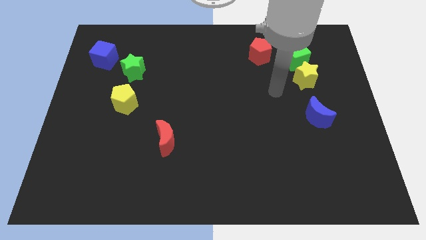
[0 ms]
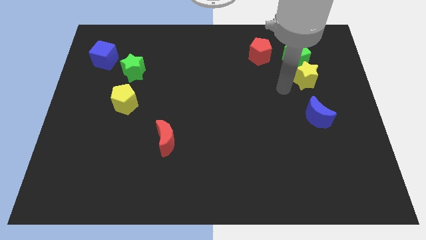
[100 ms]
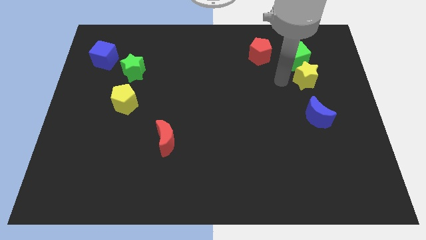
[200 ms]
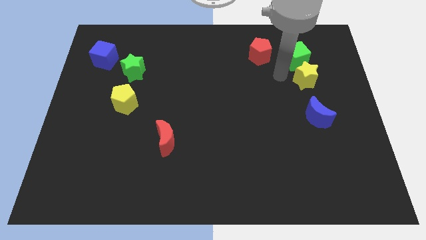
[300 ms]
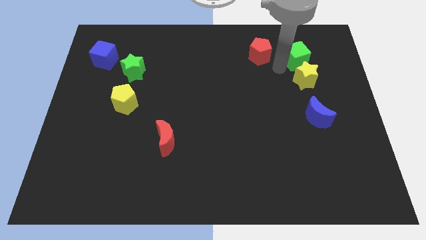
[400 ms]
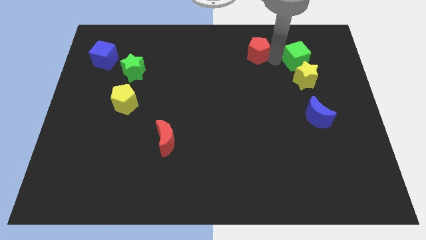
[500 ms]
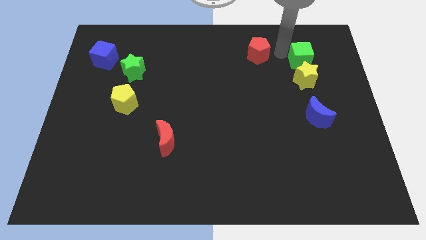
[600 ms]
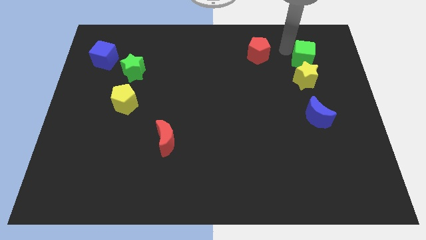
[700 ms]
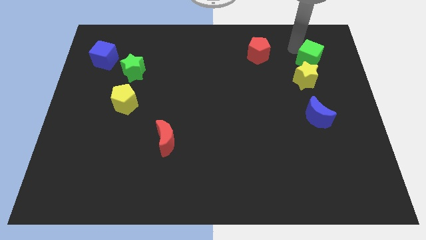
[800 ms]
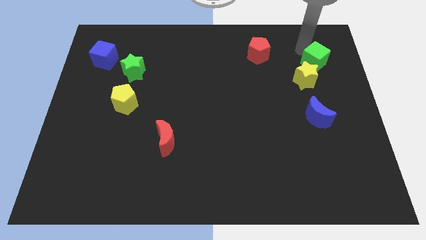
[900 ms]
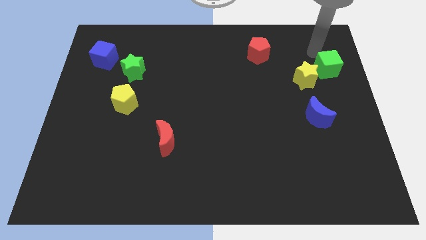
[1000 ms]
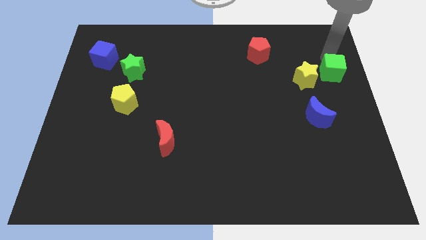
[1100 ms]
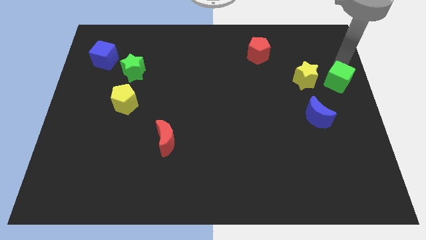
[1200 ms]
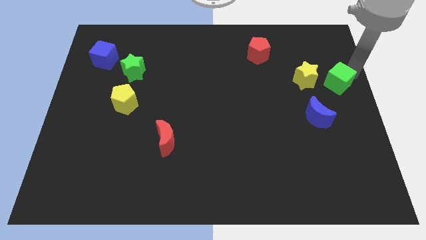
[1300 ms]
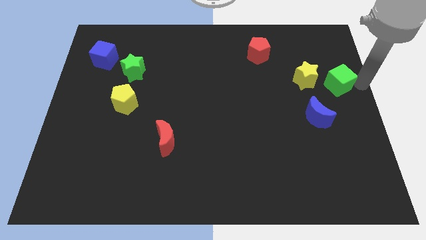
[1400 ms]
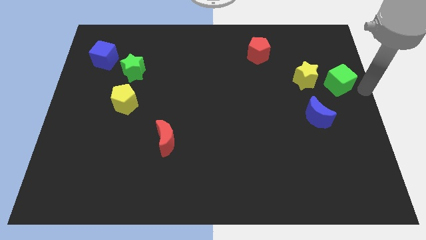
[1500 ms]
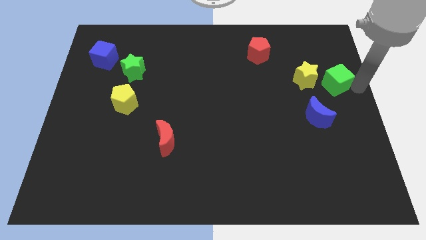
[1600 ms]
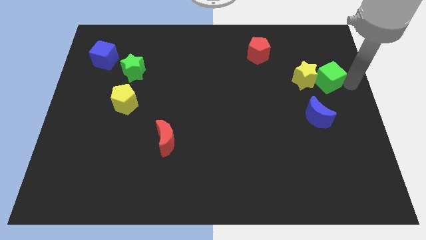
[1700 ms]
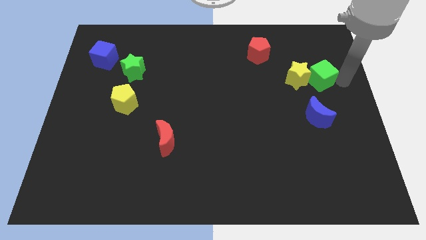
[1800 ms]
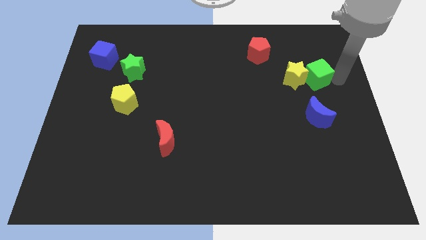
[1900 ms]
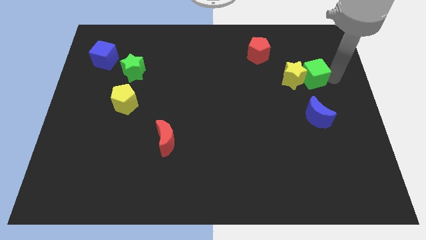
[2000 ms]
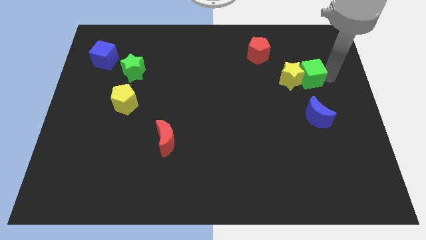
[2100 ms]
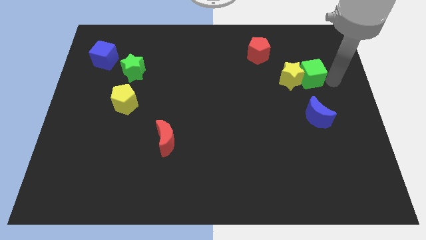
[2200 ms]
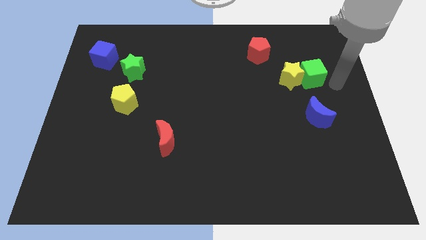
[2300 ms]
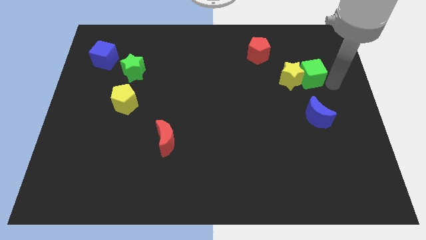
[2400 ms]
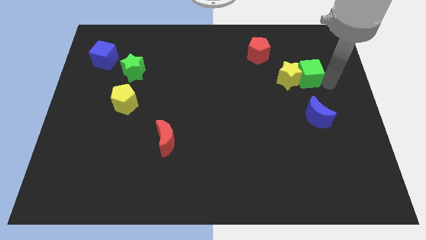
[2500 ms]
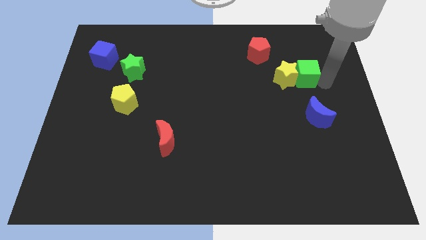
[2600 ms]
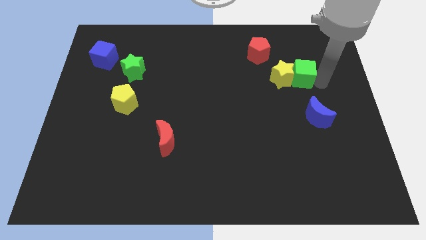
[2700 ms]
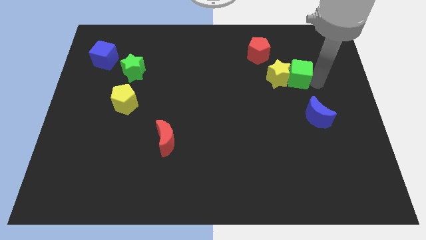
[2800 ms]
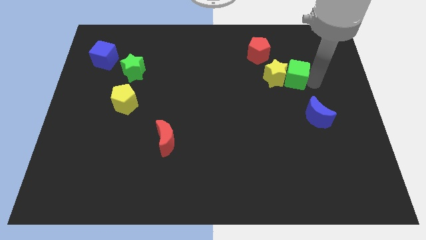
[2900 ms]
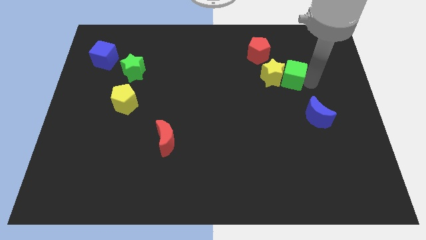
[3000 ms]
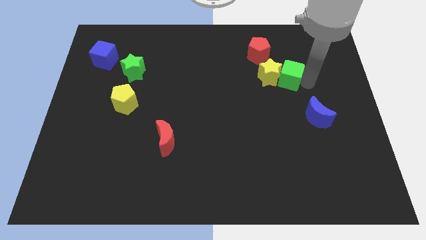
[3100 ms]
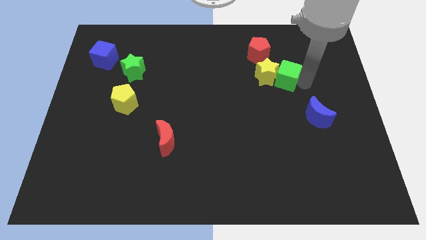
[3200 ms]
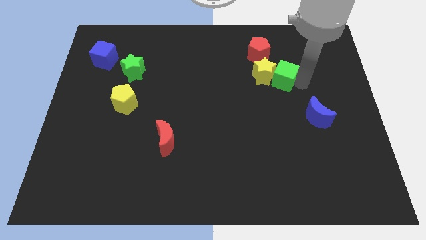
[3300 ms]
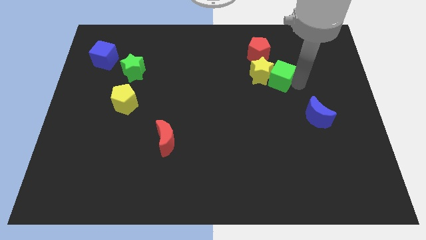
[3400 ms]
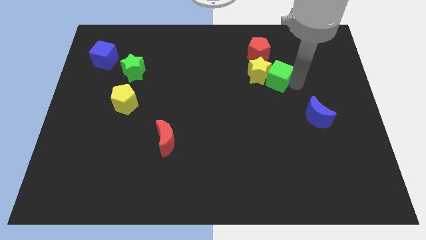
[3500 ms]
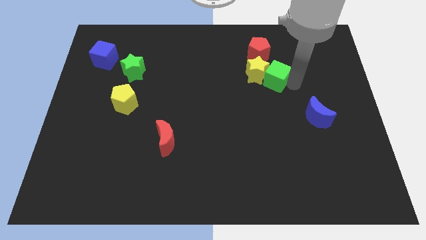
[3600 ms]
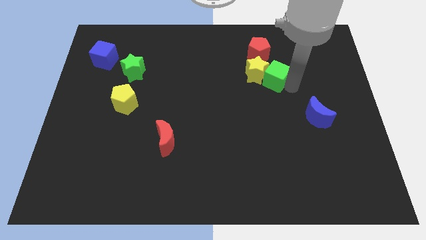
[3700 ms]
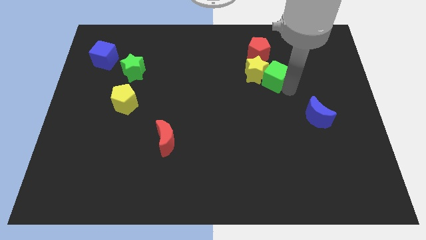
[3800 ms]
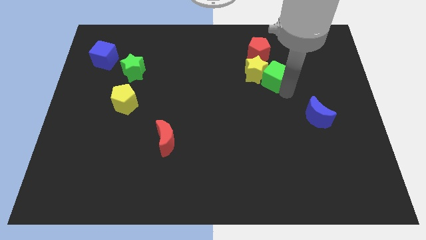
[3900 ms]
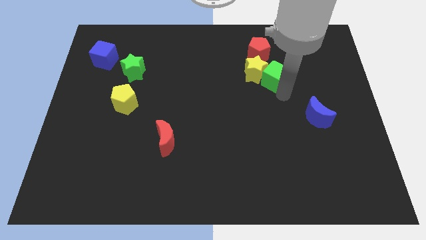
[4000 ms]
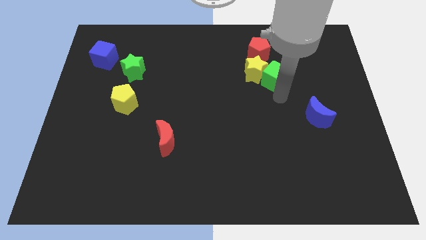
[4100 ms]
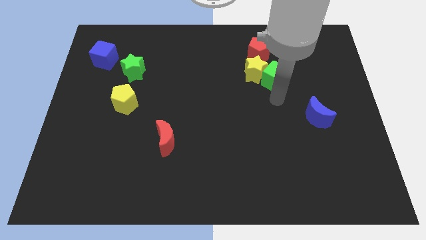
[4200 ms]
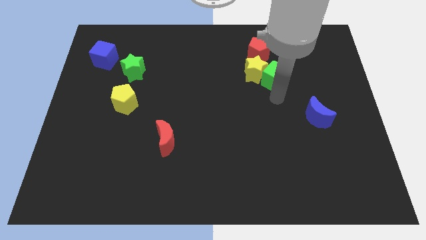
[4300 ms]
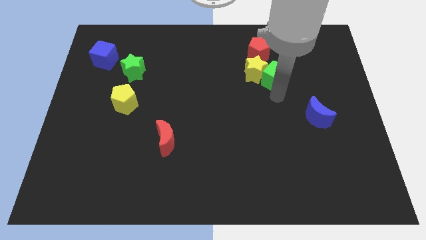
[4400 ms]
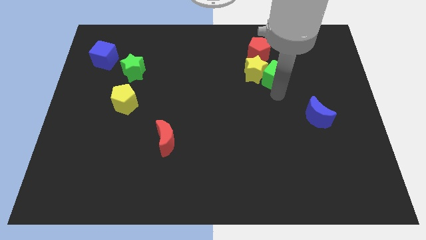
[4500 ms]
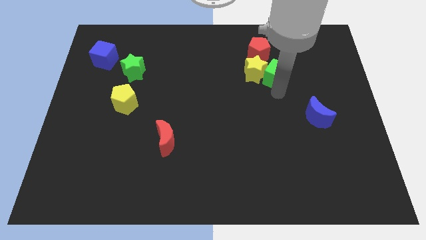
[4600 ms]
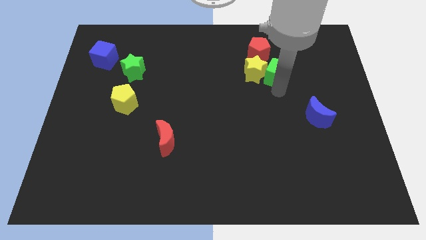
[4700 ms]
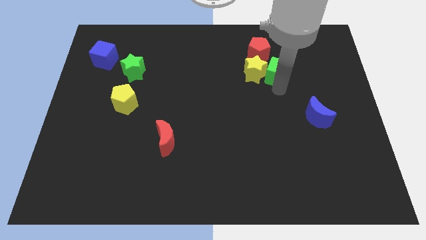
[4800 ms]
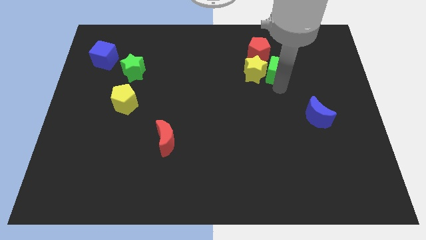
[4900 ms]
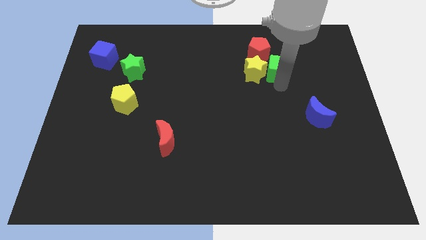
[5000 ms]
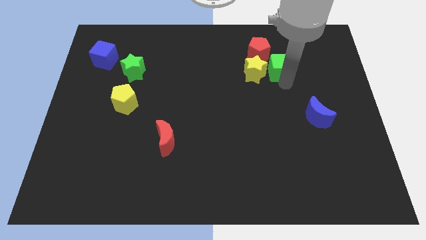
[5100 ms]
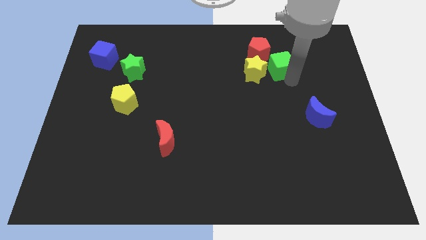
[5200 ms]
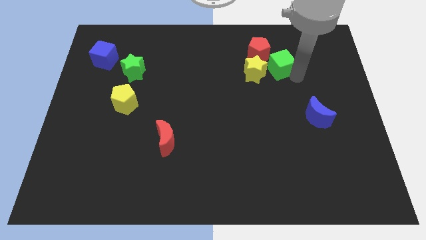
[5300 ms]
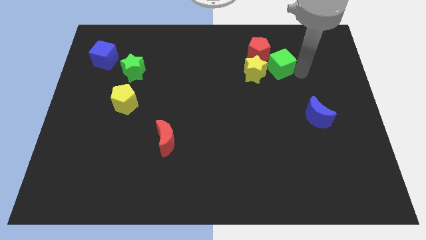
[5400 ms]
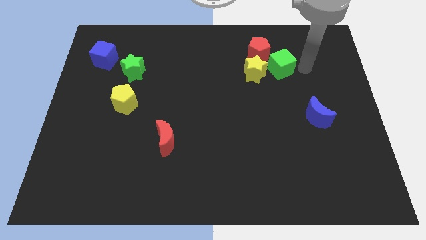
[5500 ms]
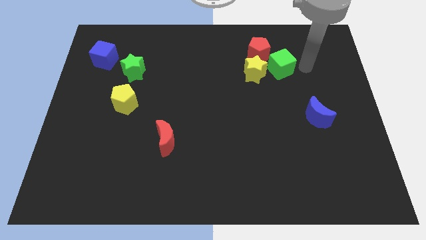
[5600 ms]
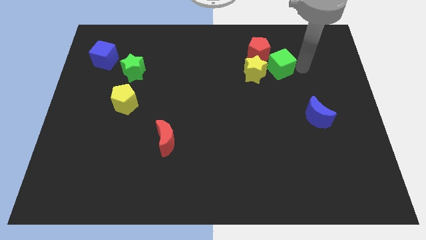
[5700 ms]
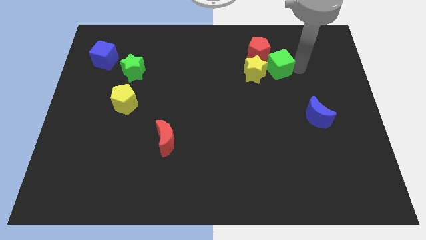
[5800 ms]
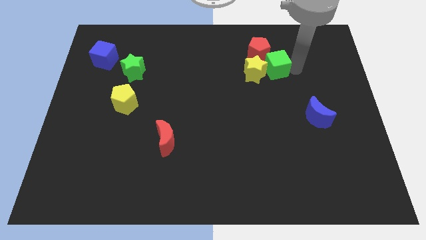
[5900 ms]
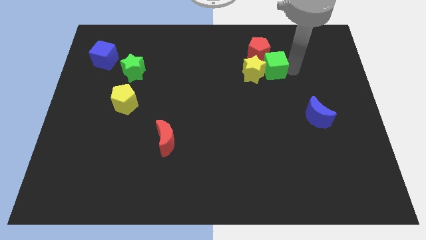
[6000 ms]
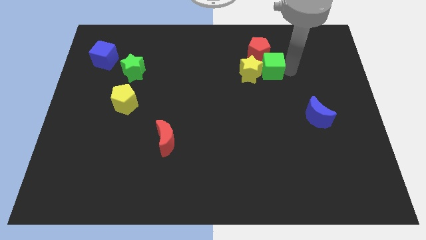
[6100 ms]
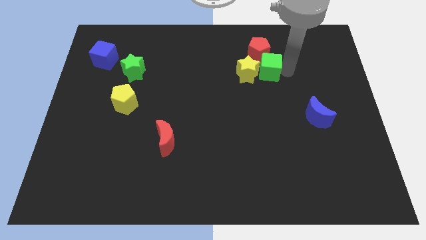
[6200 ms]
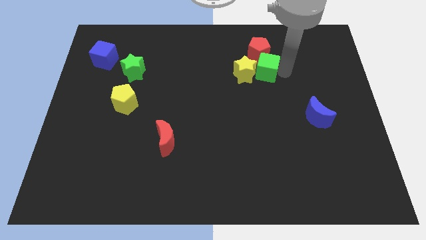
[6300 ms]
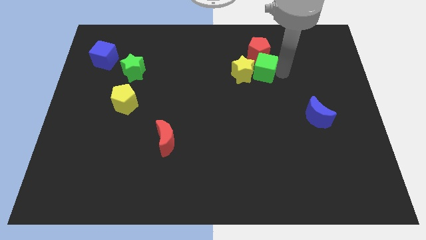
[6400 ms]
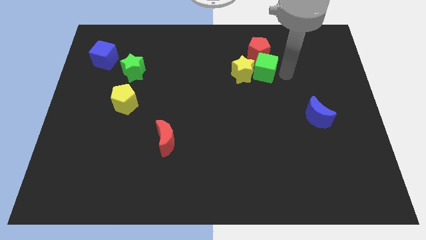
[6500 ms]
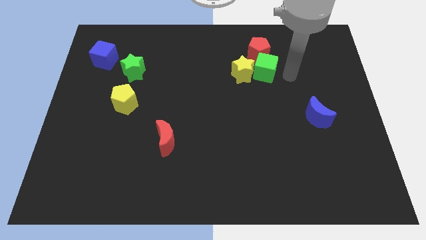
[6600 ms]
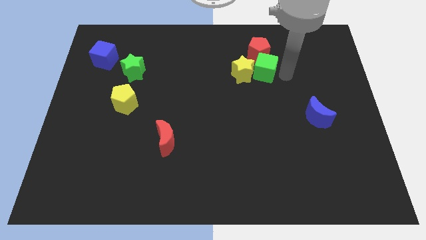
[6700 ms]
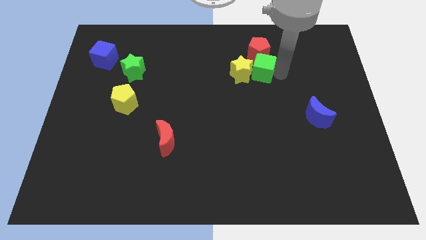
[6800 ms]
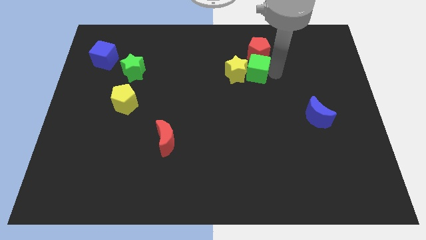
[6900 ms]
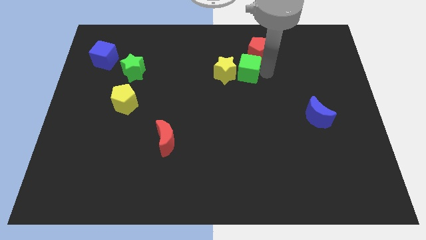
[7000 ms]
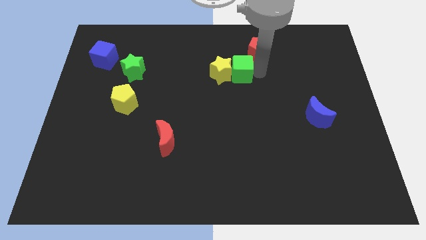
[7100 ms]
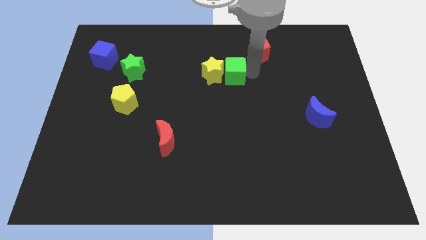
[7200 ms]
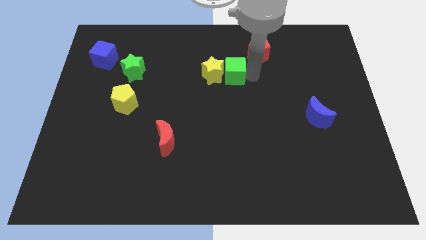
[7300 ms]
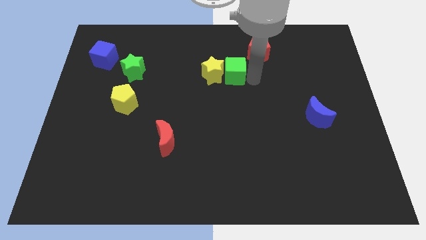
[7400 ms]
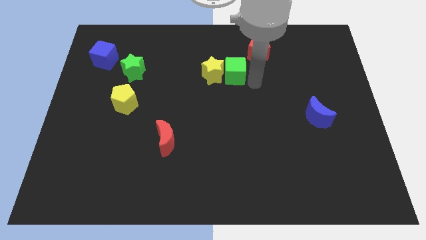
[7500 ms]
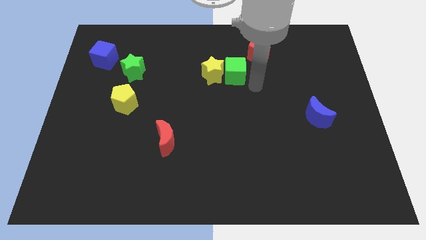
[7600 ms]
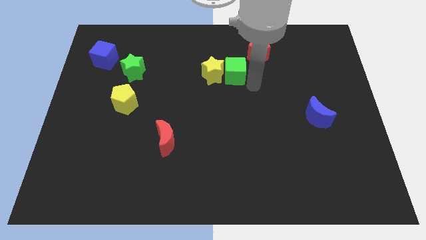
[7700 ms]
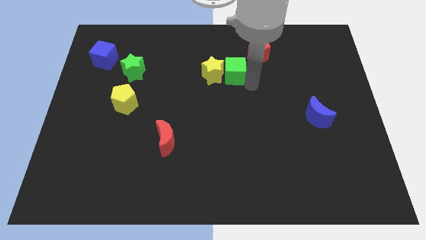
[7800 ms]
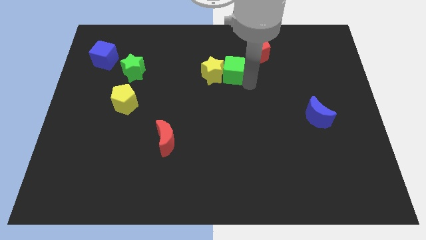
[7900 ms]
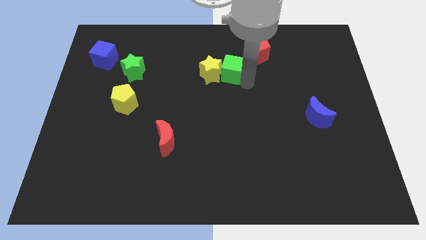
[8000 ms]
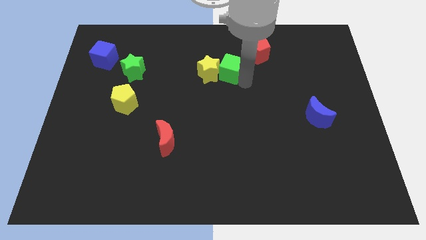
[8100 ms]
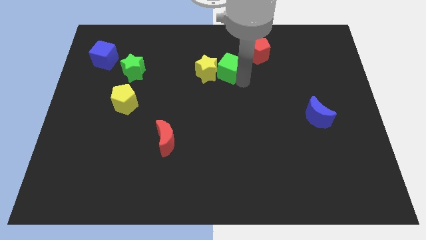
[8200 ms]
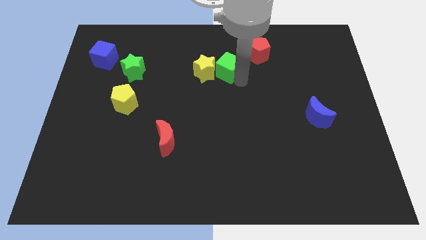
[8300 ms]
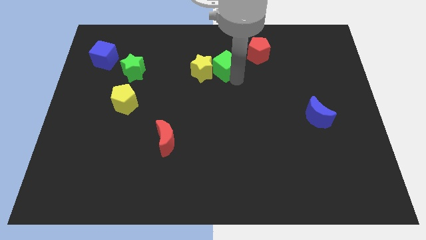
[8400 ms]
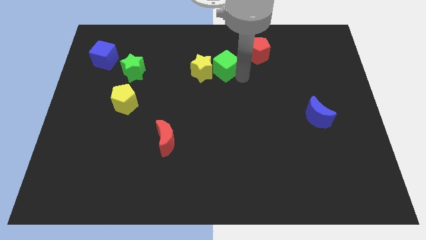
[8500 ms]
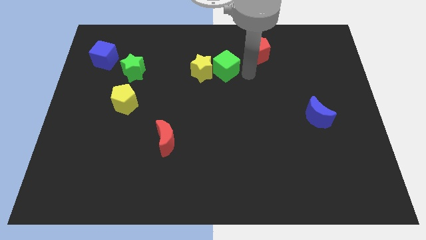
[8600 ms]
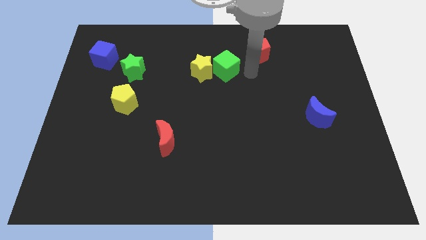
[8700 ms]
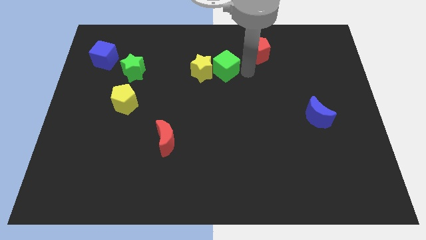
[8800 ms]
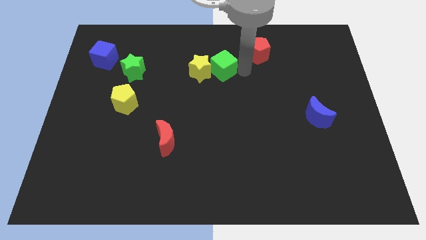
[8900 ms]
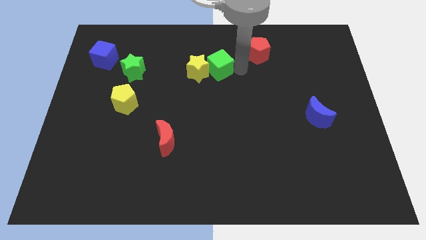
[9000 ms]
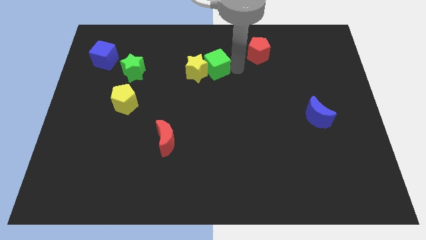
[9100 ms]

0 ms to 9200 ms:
move the green cube left
